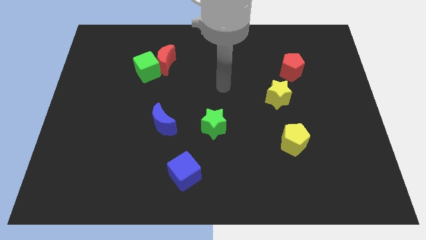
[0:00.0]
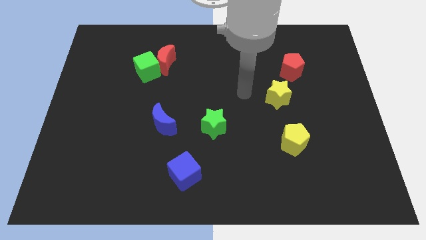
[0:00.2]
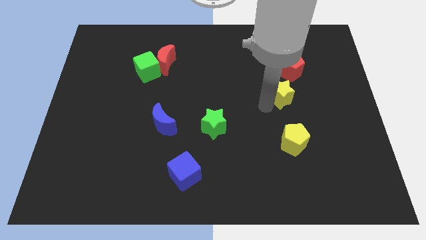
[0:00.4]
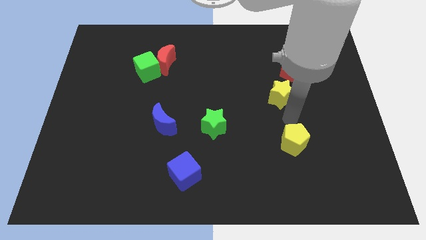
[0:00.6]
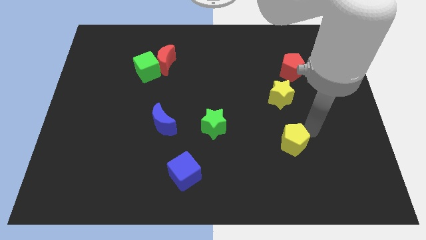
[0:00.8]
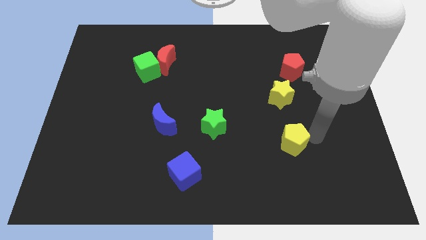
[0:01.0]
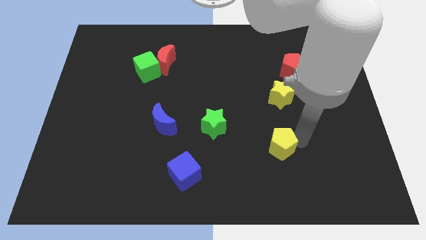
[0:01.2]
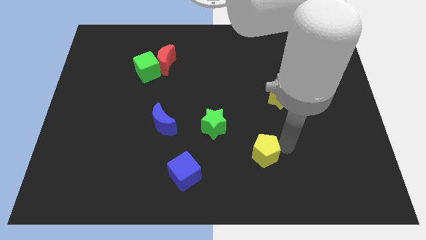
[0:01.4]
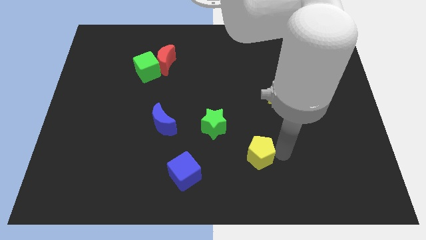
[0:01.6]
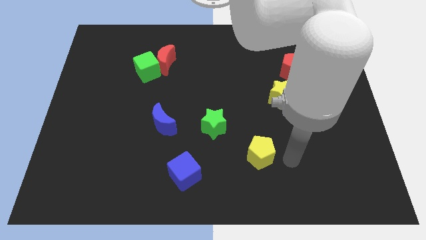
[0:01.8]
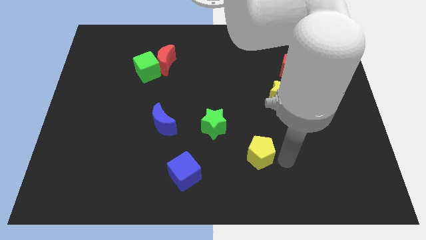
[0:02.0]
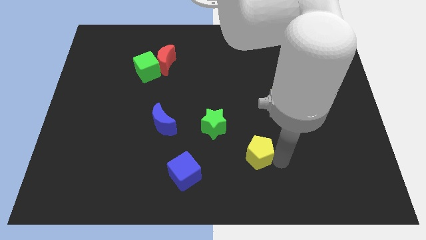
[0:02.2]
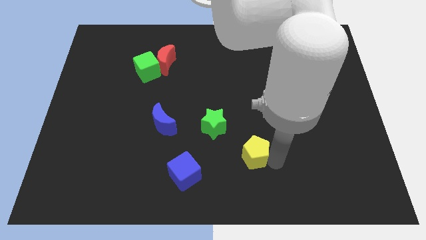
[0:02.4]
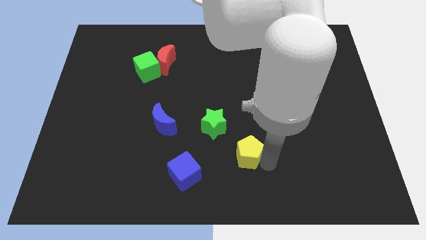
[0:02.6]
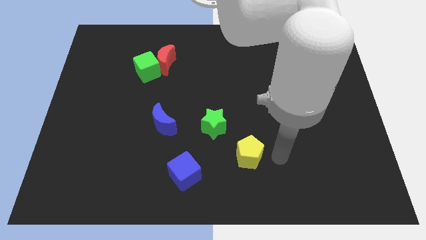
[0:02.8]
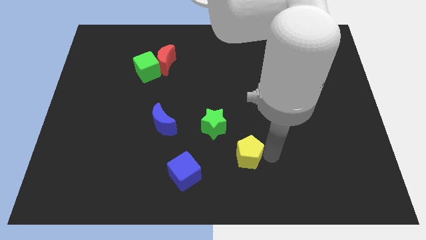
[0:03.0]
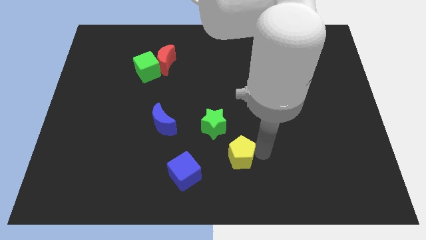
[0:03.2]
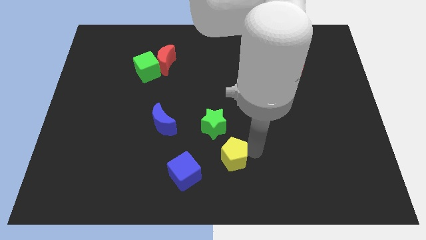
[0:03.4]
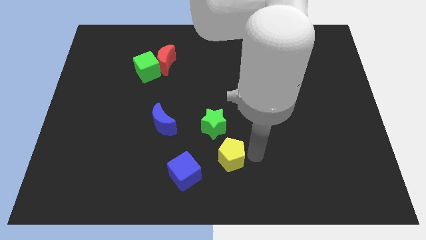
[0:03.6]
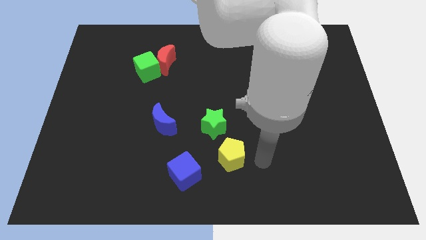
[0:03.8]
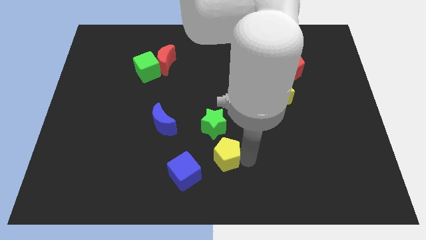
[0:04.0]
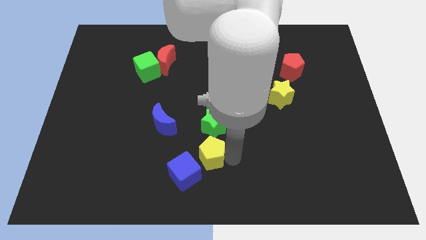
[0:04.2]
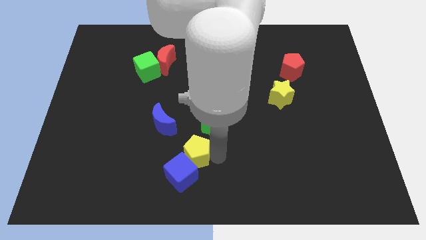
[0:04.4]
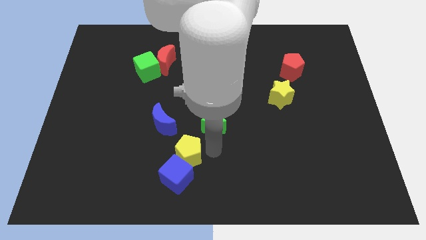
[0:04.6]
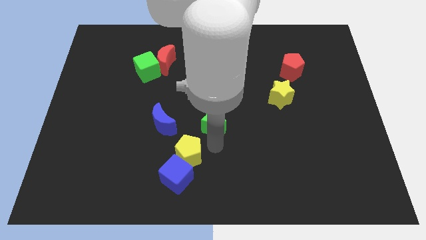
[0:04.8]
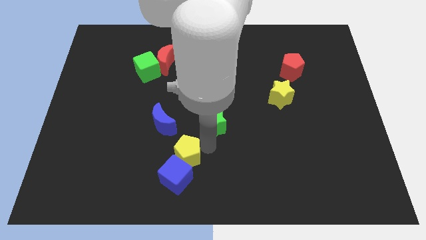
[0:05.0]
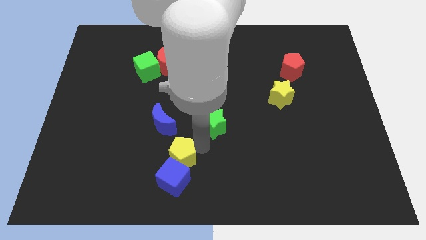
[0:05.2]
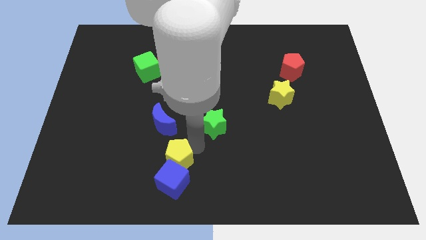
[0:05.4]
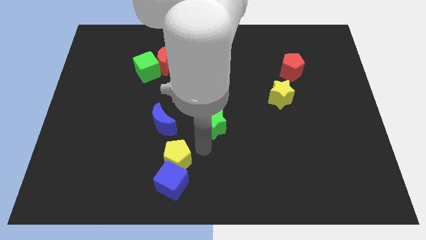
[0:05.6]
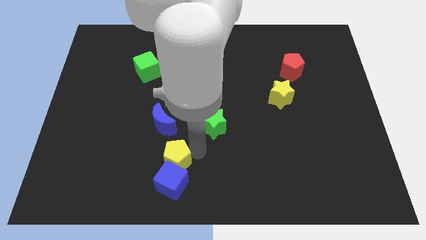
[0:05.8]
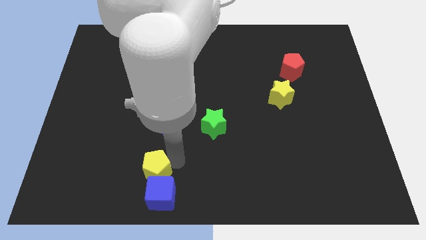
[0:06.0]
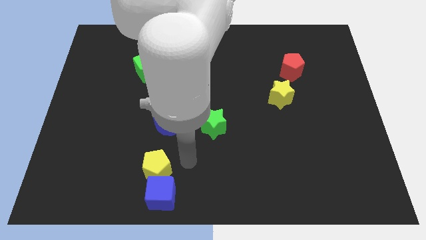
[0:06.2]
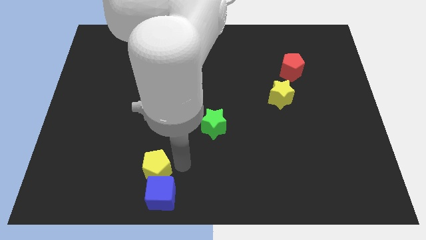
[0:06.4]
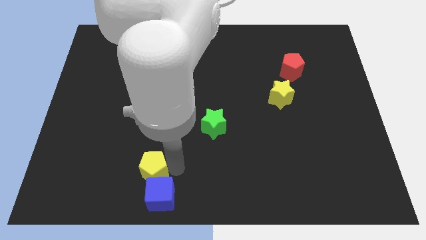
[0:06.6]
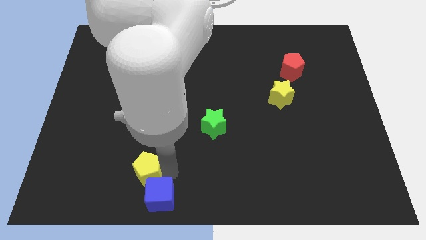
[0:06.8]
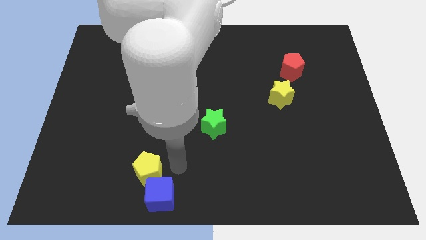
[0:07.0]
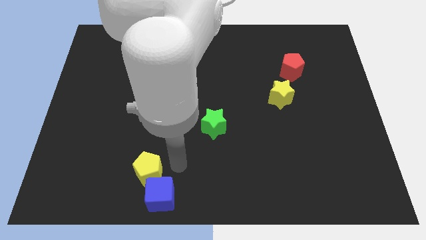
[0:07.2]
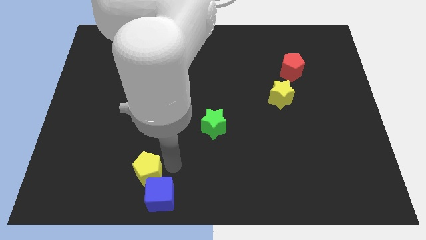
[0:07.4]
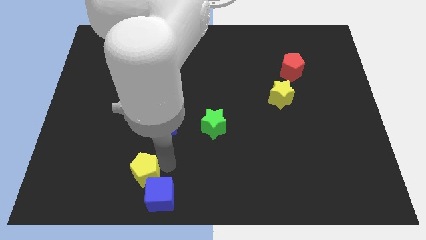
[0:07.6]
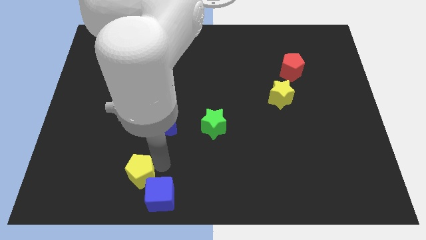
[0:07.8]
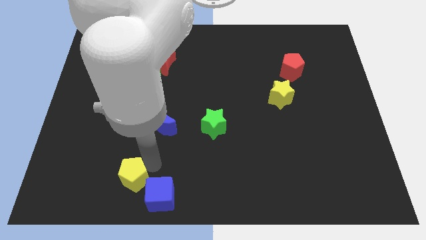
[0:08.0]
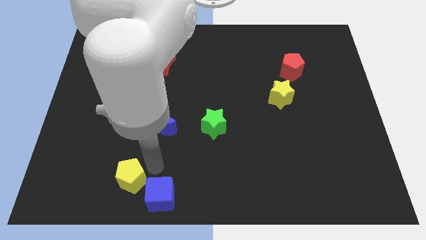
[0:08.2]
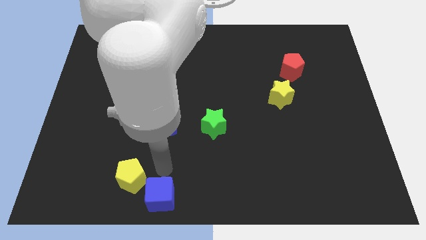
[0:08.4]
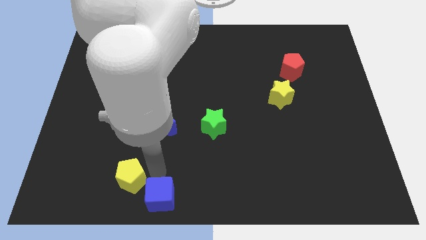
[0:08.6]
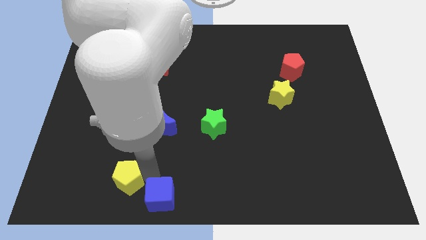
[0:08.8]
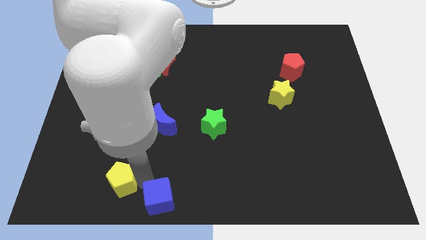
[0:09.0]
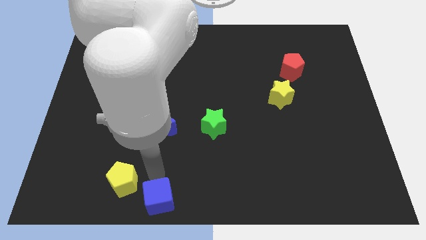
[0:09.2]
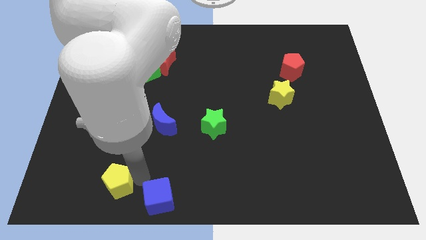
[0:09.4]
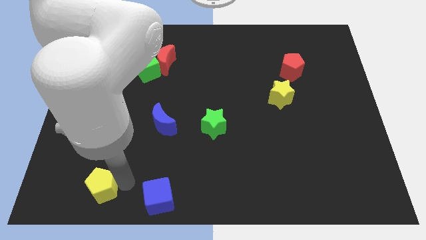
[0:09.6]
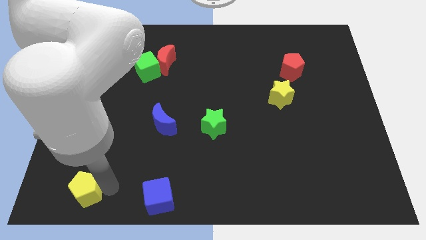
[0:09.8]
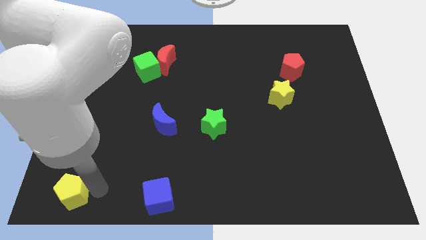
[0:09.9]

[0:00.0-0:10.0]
push the yellow pentagon to the lower left corner

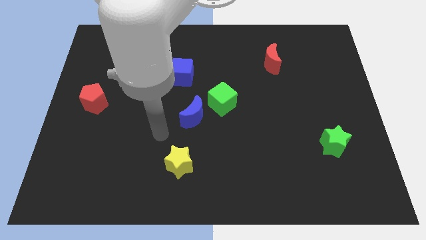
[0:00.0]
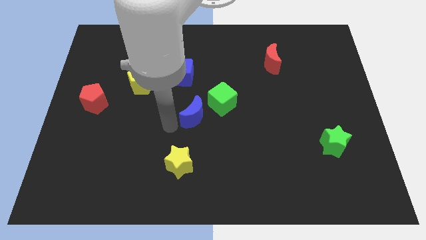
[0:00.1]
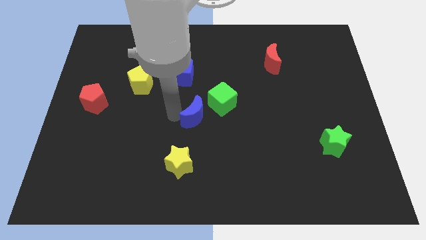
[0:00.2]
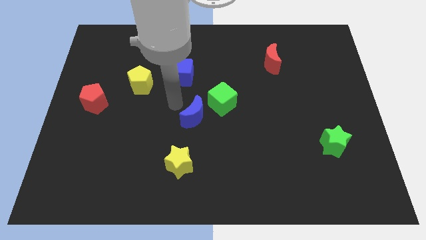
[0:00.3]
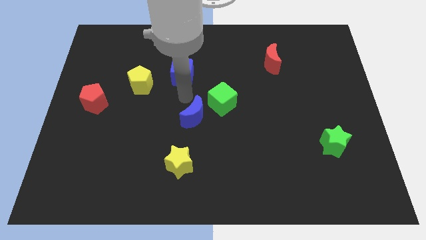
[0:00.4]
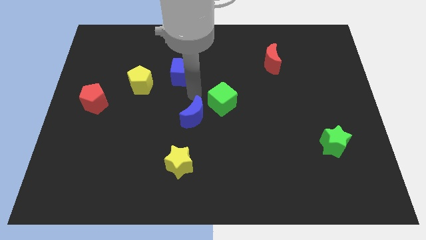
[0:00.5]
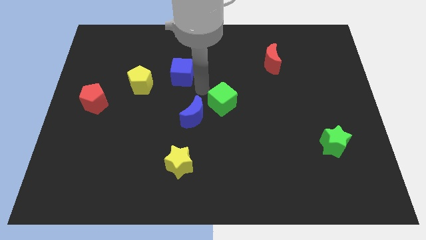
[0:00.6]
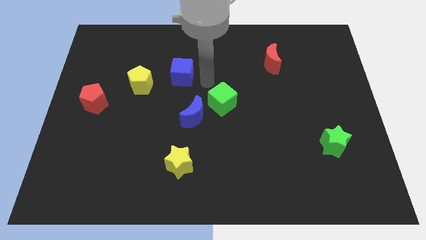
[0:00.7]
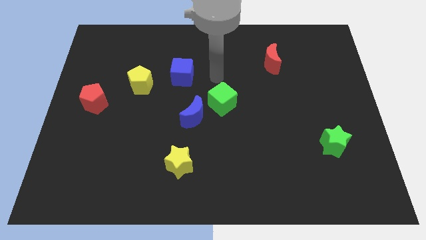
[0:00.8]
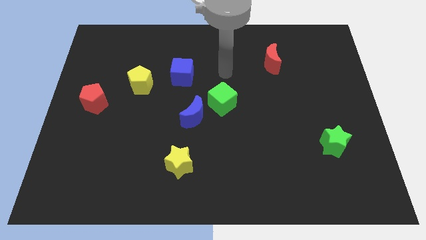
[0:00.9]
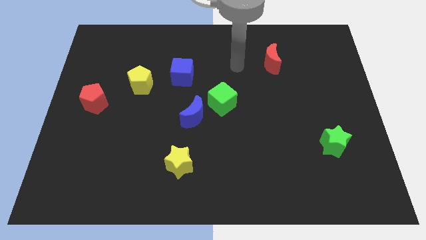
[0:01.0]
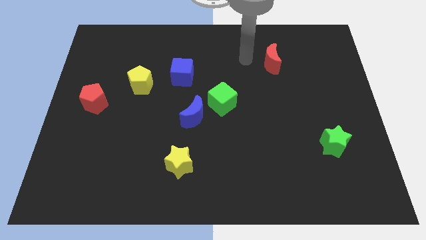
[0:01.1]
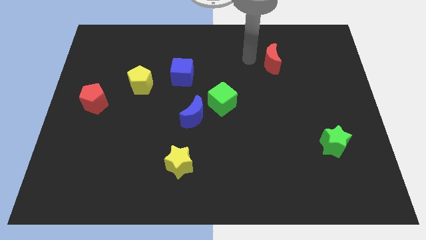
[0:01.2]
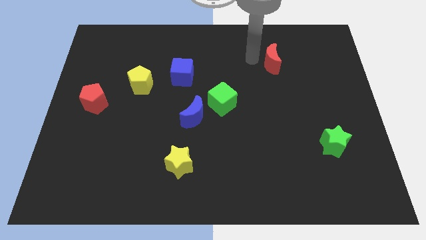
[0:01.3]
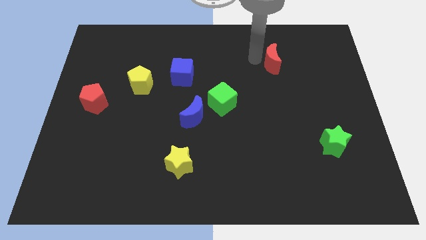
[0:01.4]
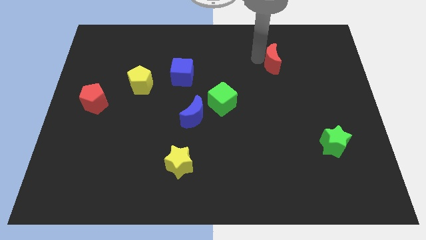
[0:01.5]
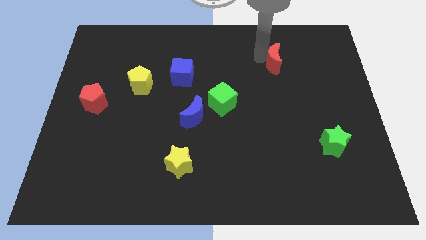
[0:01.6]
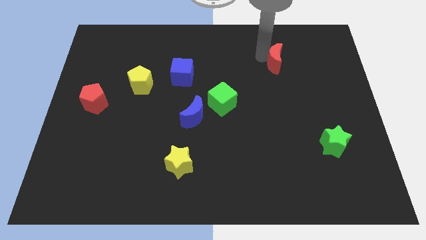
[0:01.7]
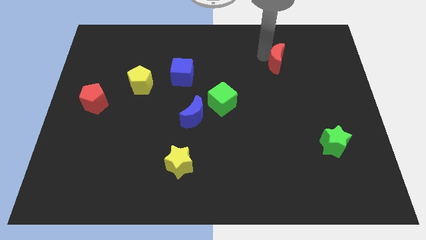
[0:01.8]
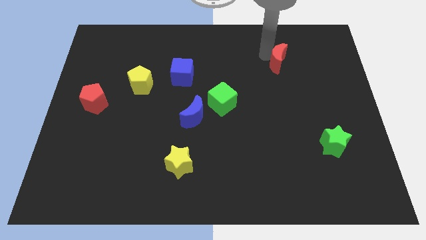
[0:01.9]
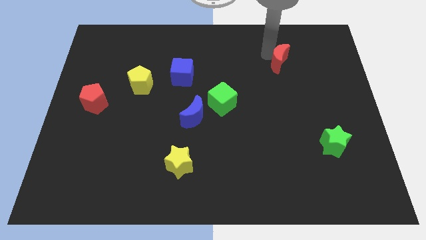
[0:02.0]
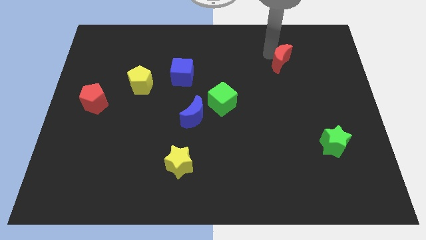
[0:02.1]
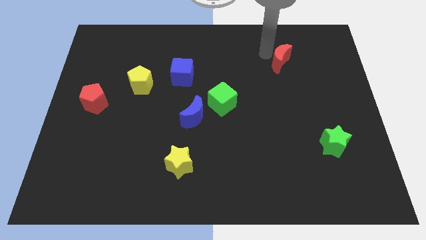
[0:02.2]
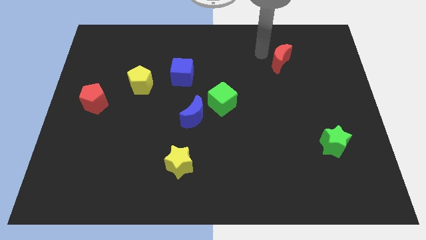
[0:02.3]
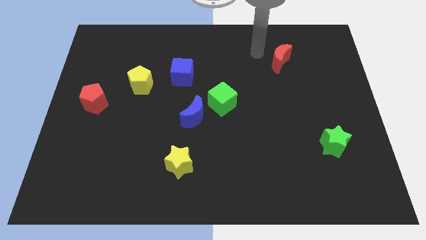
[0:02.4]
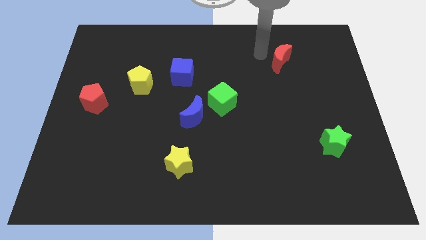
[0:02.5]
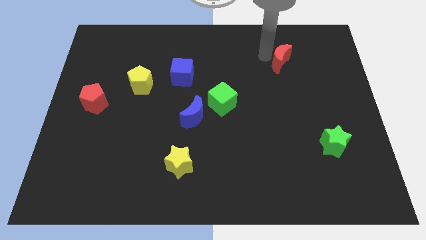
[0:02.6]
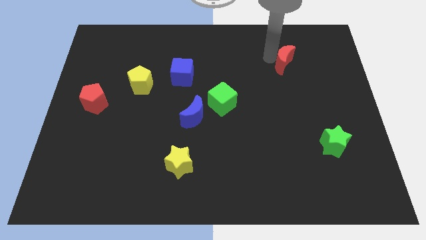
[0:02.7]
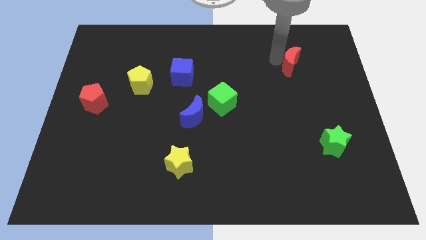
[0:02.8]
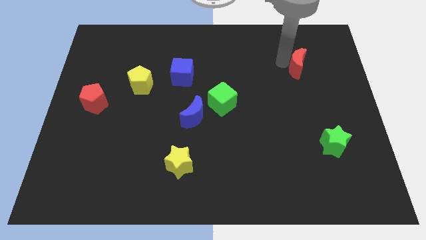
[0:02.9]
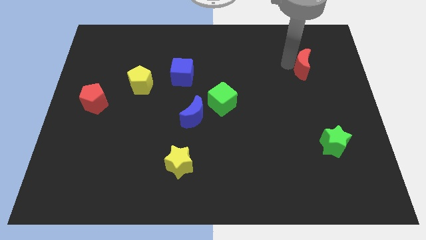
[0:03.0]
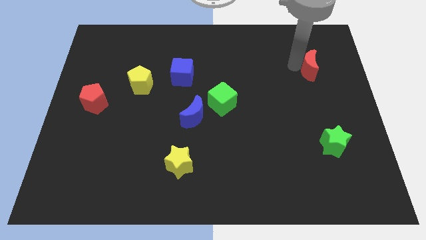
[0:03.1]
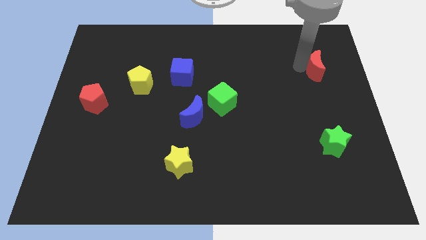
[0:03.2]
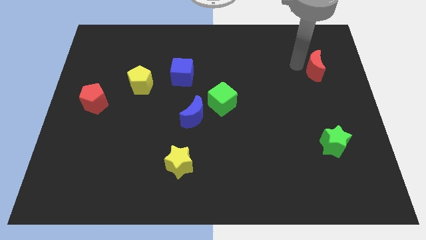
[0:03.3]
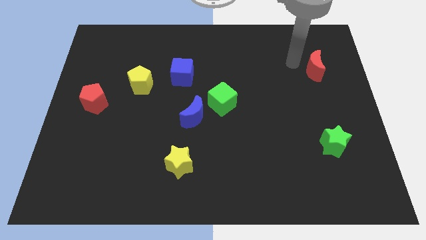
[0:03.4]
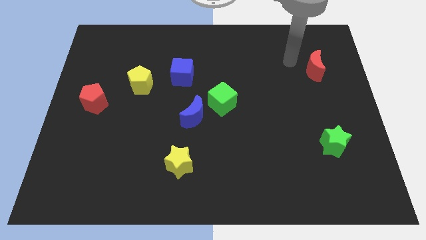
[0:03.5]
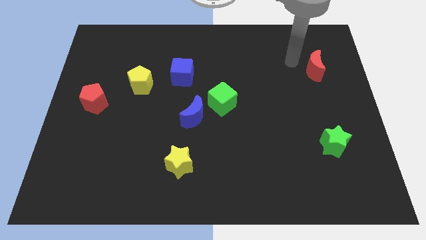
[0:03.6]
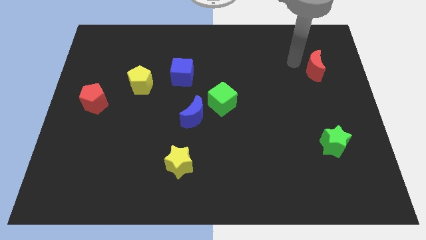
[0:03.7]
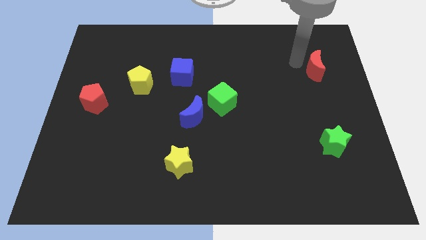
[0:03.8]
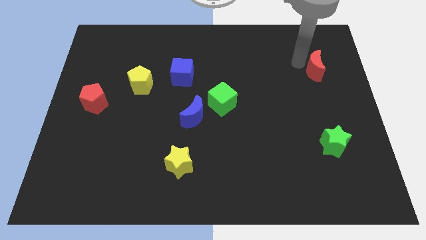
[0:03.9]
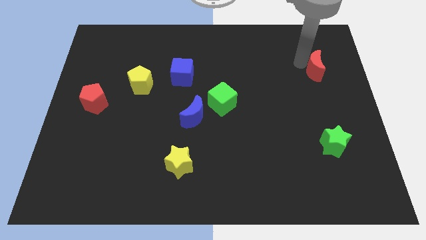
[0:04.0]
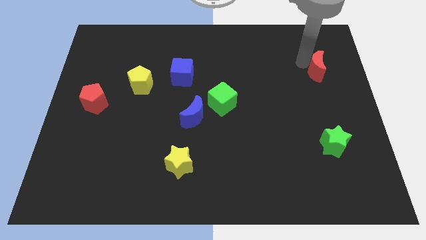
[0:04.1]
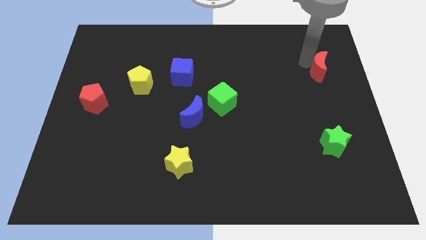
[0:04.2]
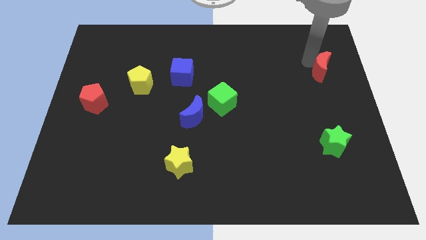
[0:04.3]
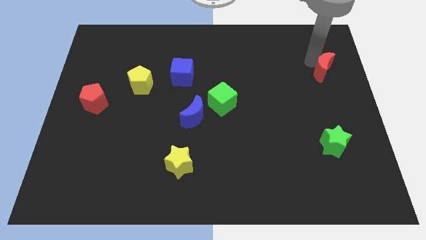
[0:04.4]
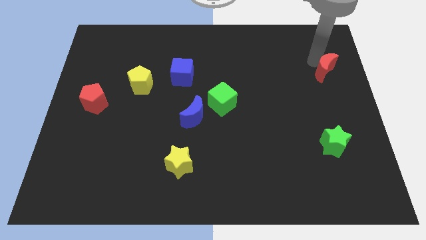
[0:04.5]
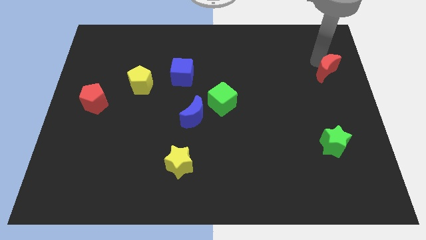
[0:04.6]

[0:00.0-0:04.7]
put the red moon to the center right
